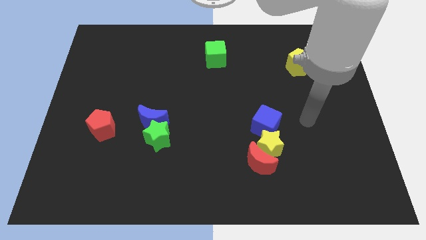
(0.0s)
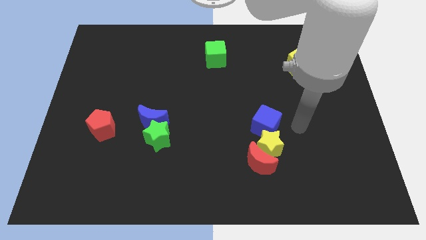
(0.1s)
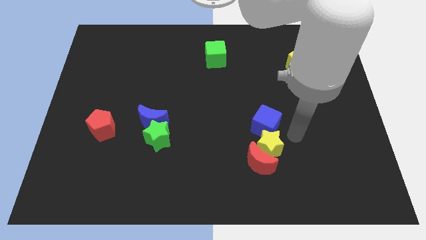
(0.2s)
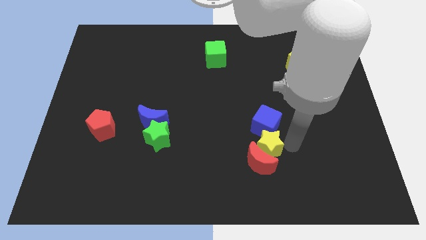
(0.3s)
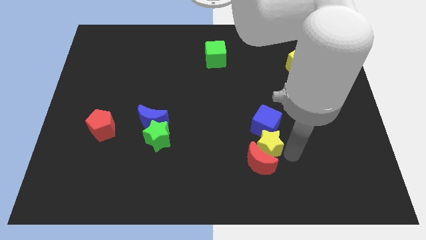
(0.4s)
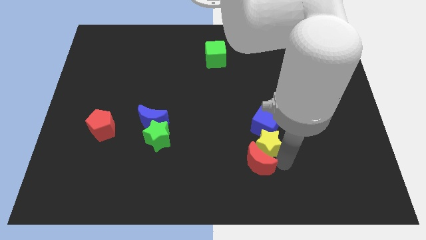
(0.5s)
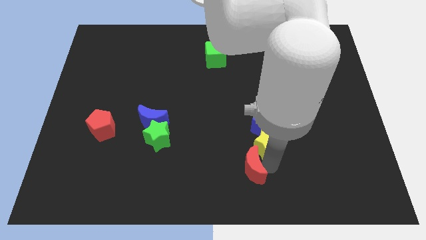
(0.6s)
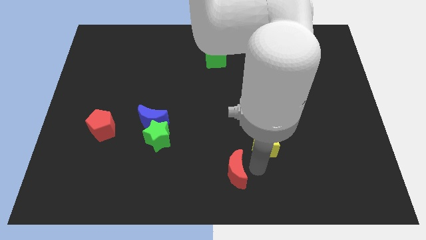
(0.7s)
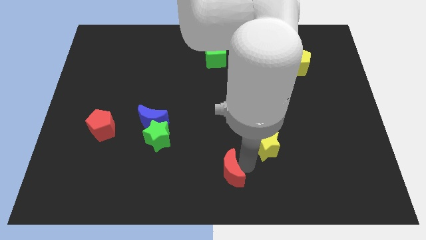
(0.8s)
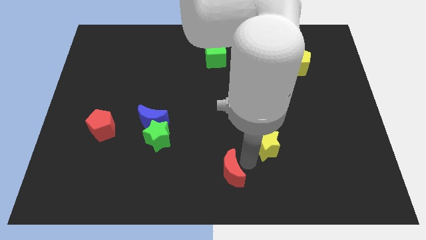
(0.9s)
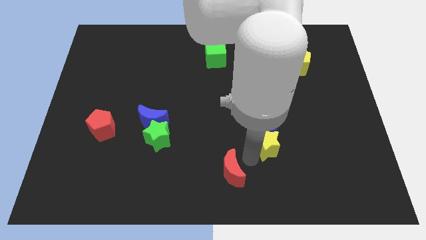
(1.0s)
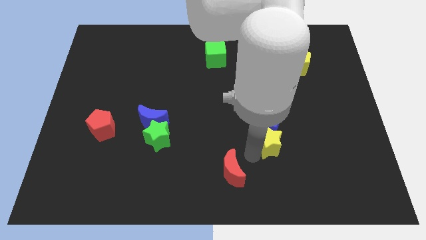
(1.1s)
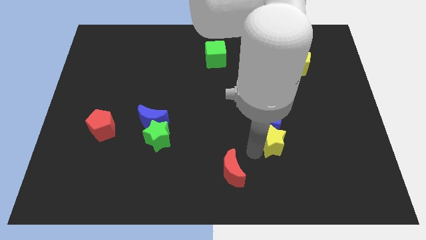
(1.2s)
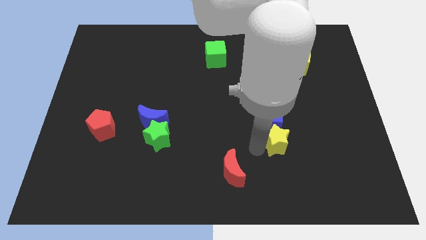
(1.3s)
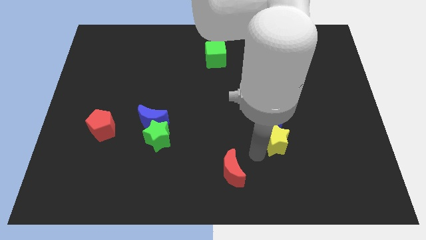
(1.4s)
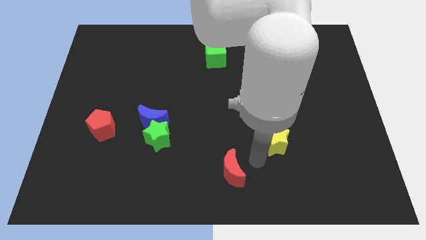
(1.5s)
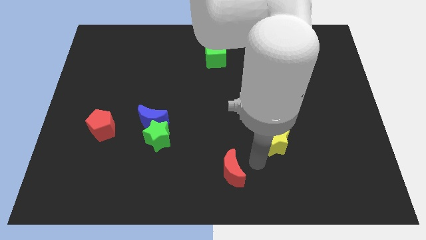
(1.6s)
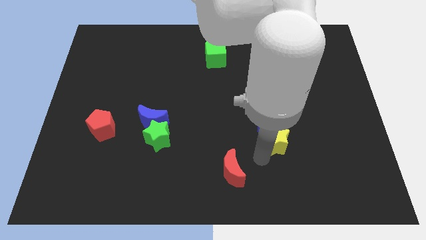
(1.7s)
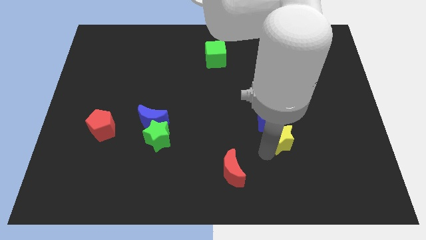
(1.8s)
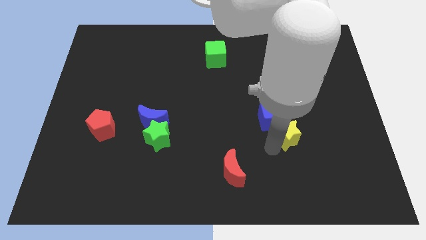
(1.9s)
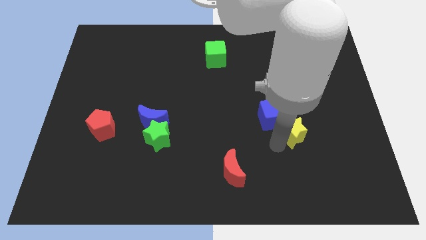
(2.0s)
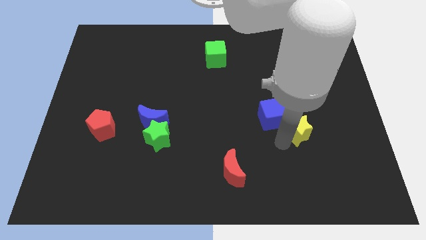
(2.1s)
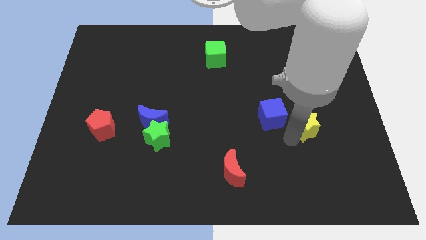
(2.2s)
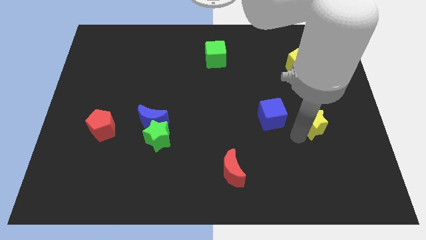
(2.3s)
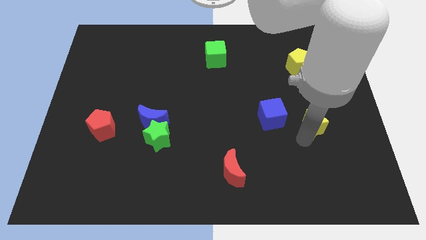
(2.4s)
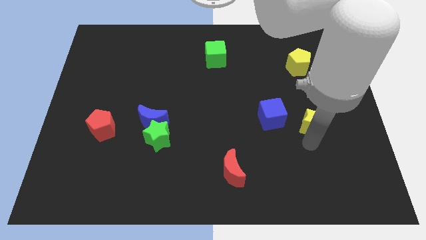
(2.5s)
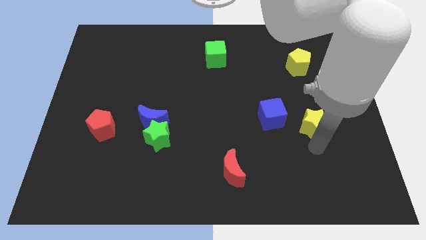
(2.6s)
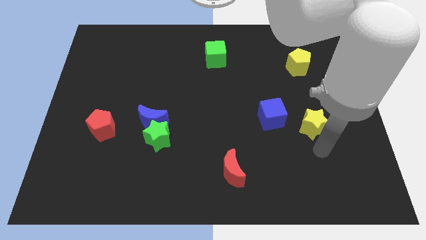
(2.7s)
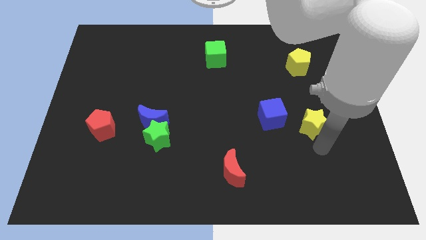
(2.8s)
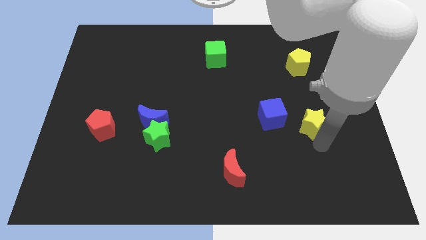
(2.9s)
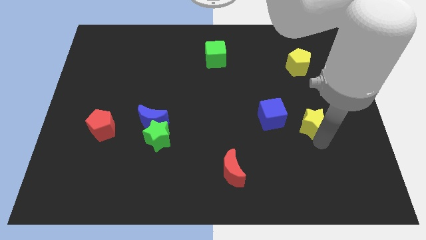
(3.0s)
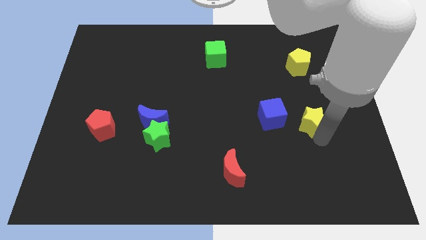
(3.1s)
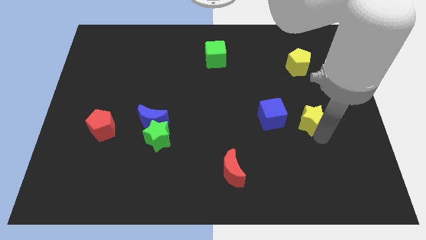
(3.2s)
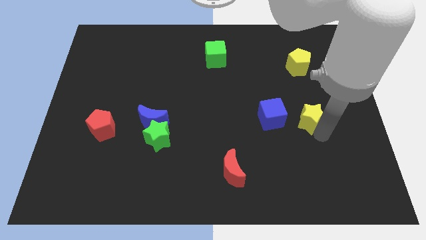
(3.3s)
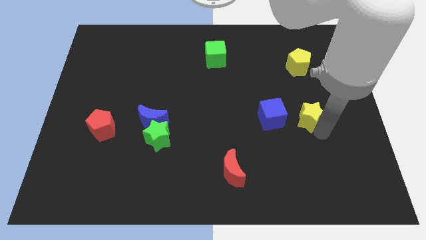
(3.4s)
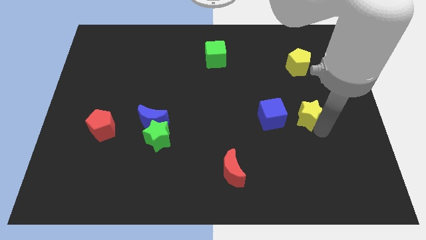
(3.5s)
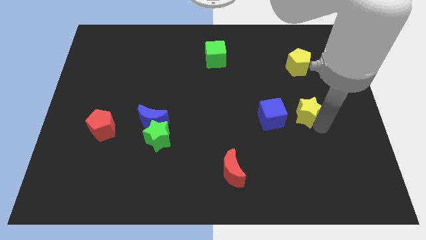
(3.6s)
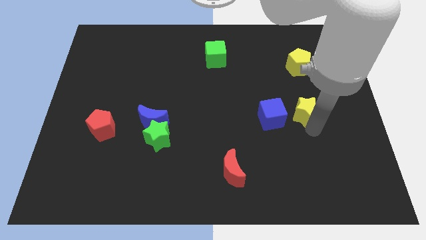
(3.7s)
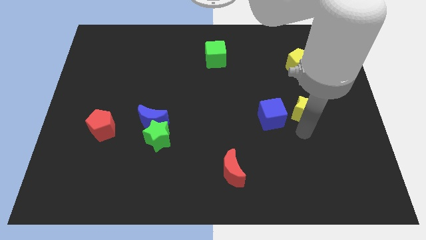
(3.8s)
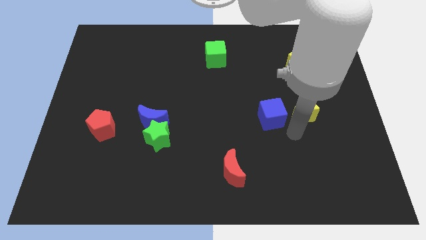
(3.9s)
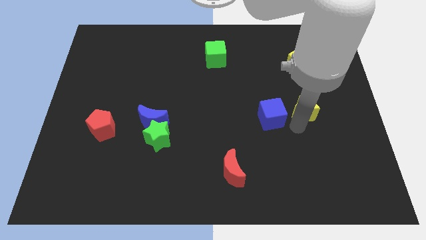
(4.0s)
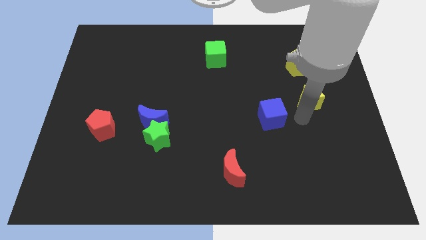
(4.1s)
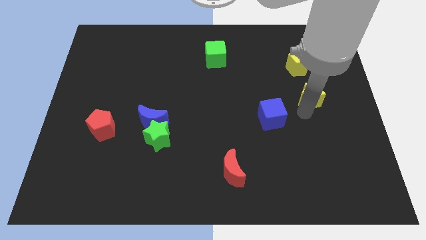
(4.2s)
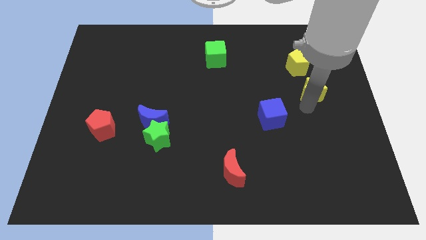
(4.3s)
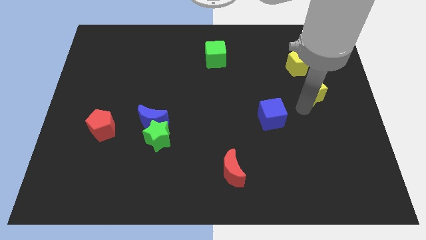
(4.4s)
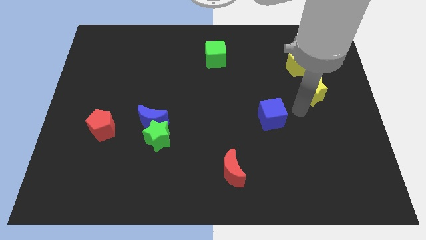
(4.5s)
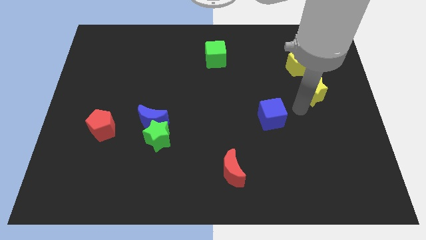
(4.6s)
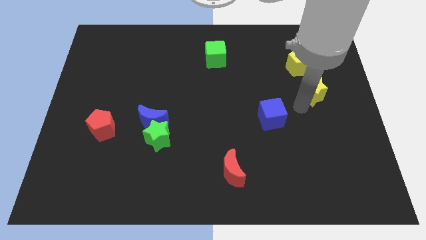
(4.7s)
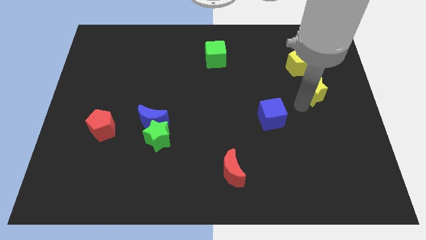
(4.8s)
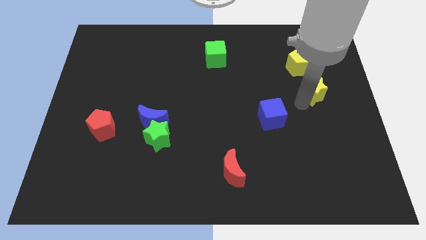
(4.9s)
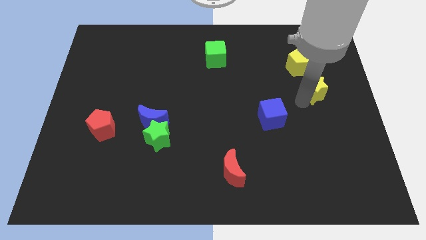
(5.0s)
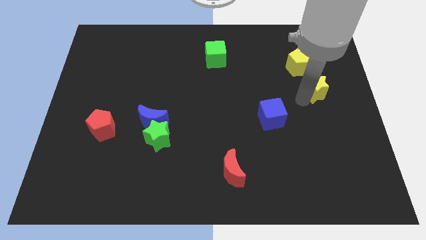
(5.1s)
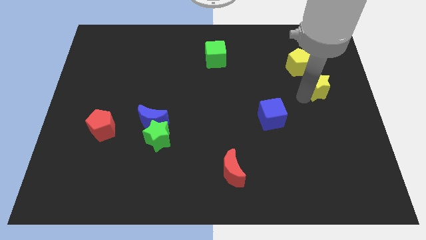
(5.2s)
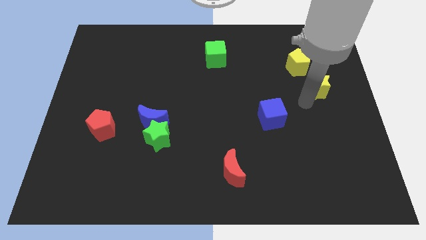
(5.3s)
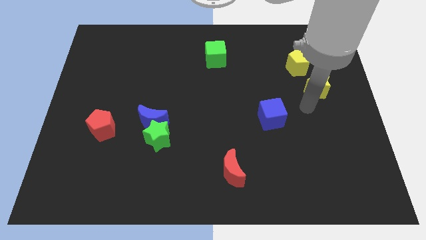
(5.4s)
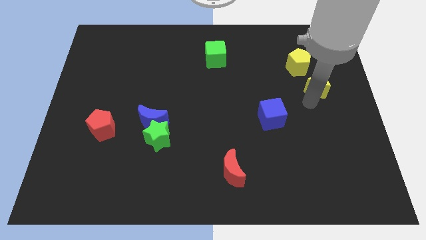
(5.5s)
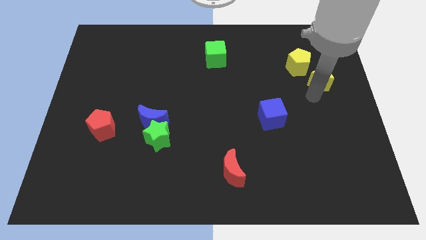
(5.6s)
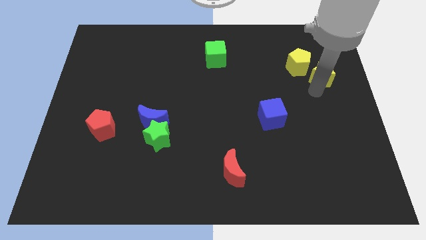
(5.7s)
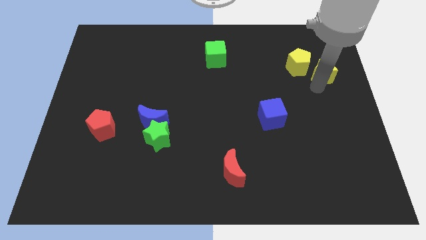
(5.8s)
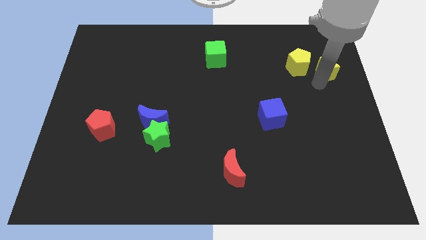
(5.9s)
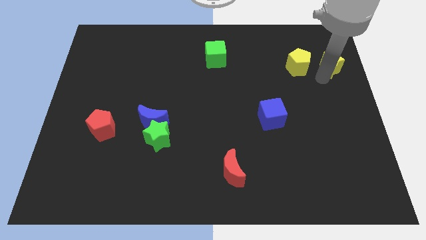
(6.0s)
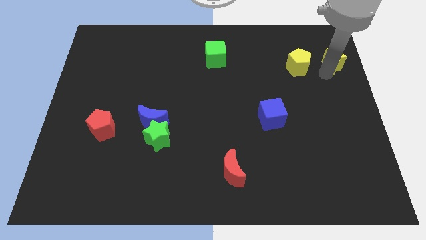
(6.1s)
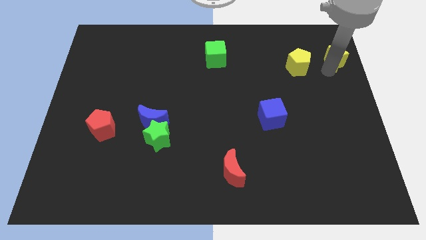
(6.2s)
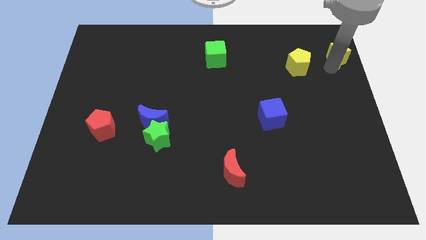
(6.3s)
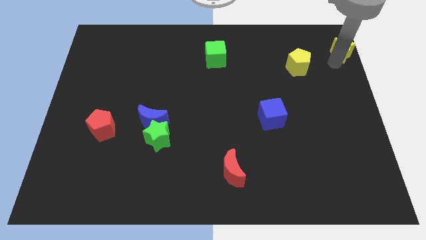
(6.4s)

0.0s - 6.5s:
slide the yellow star to the top right

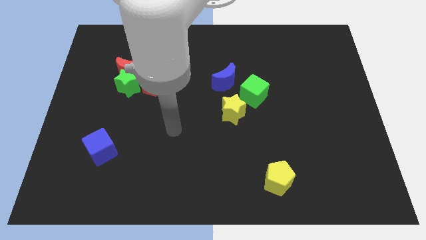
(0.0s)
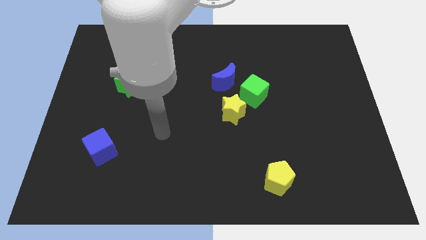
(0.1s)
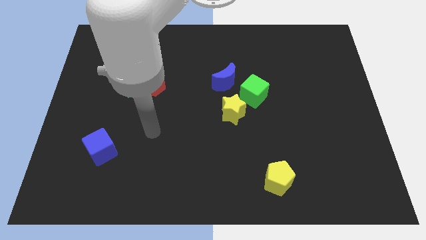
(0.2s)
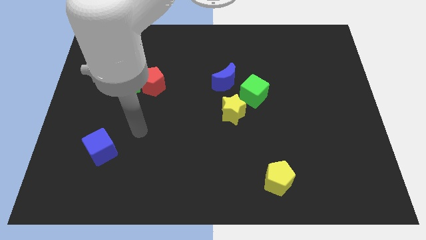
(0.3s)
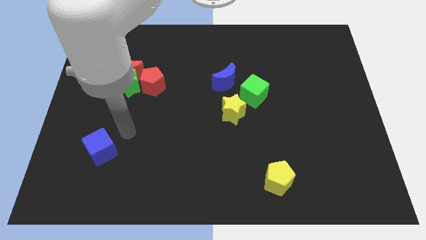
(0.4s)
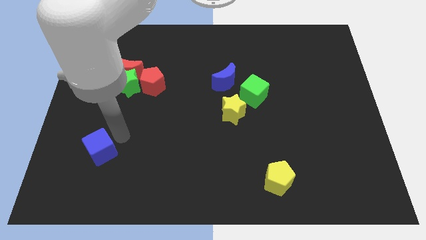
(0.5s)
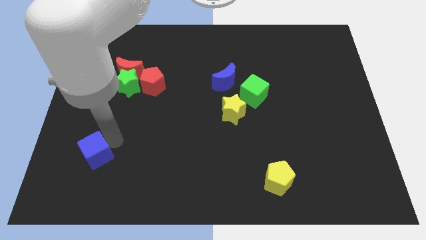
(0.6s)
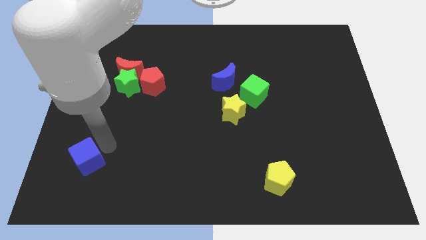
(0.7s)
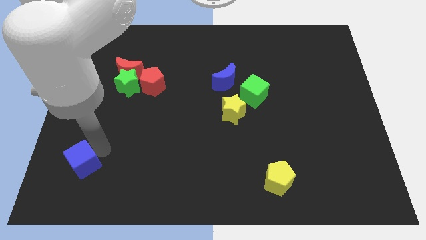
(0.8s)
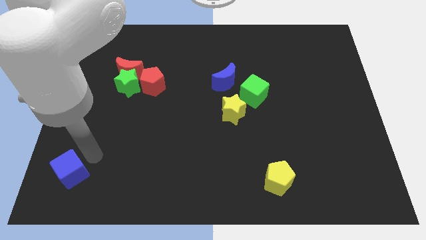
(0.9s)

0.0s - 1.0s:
push the blue cube to the bottom left of the board

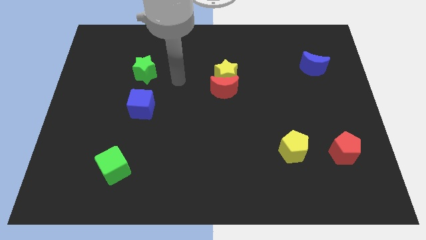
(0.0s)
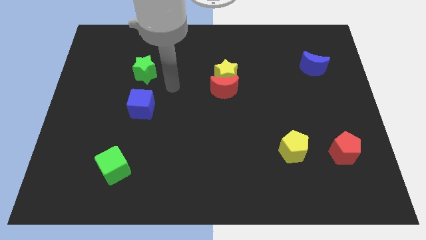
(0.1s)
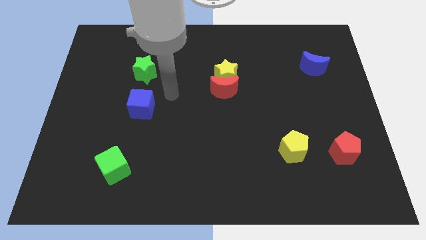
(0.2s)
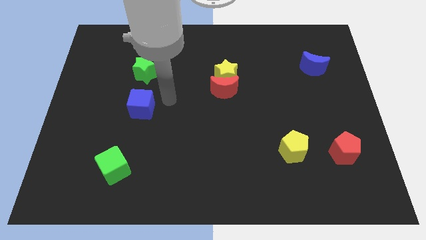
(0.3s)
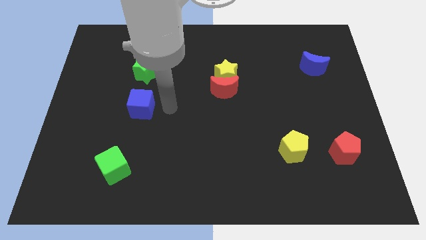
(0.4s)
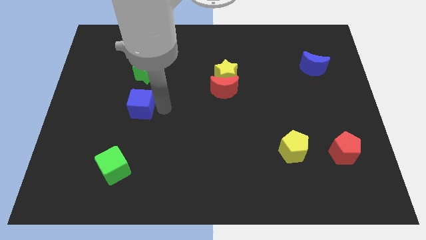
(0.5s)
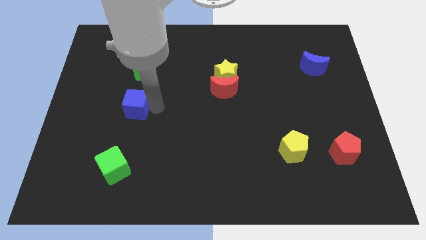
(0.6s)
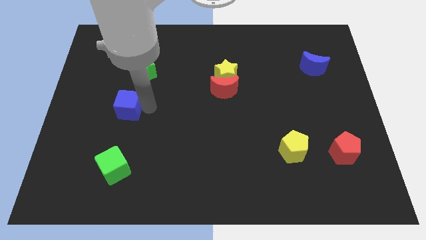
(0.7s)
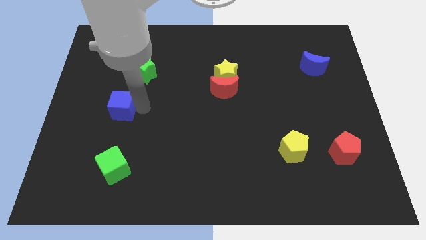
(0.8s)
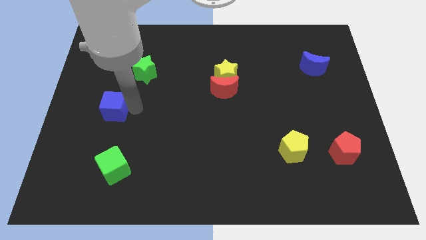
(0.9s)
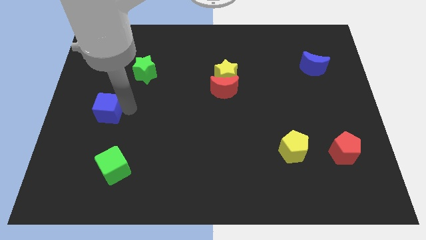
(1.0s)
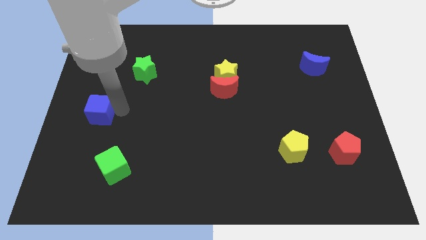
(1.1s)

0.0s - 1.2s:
slide the blue cube to the left side
